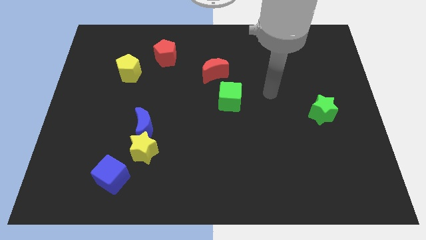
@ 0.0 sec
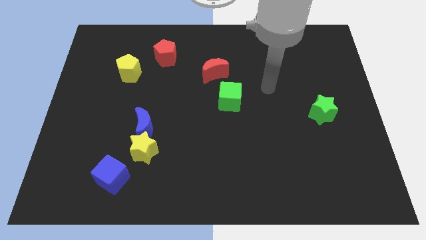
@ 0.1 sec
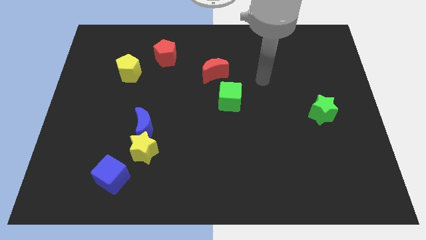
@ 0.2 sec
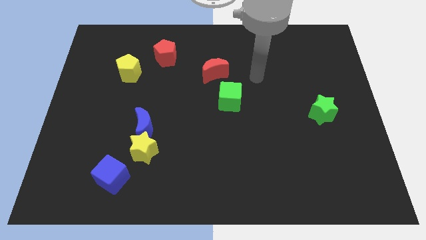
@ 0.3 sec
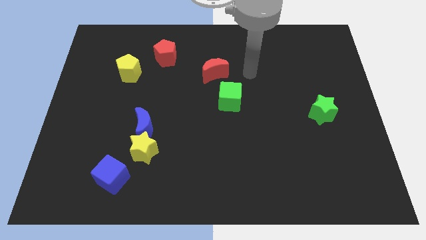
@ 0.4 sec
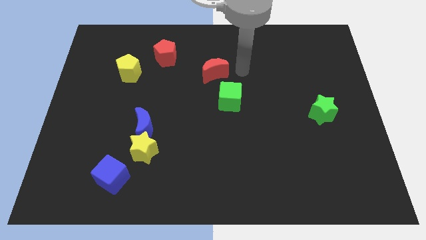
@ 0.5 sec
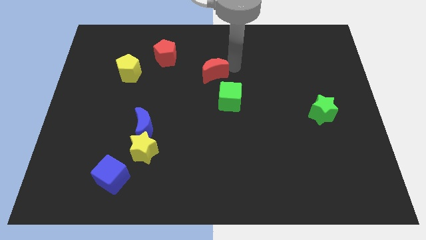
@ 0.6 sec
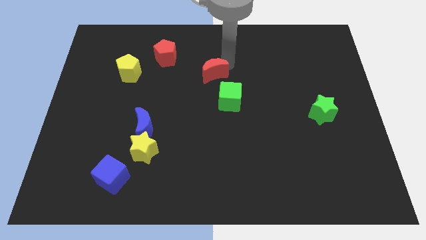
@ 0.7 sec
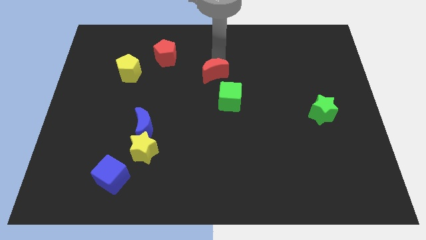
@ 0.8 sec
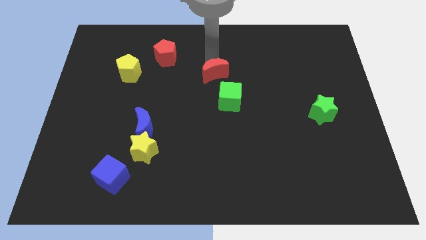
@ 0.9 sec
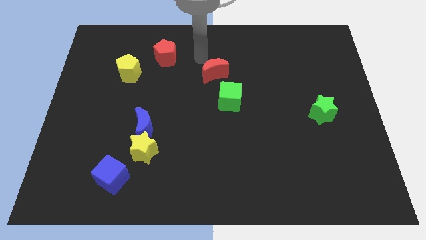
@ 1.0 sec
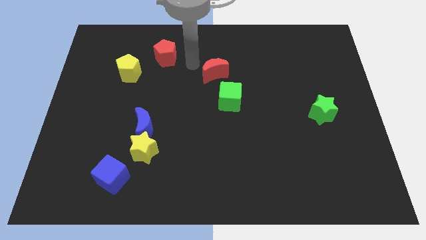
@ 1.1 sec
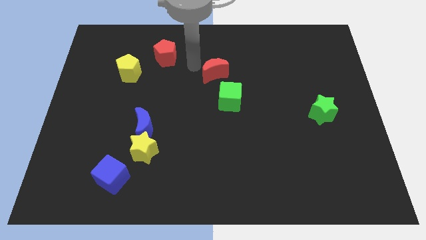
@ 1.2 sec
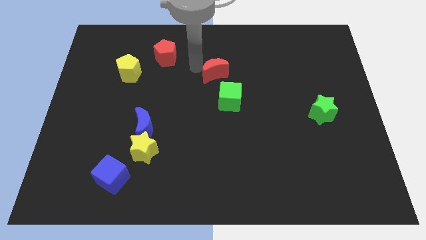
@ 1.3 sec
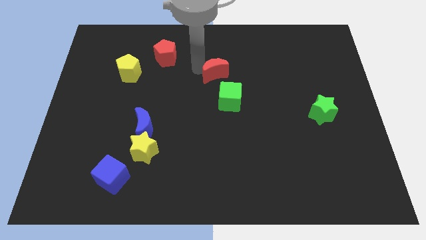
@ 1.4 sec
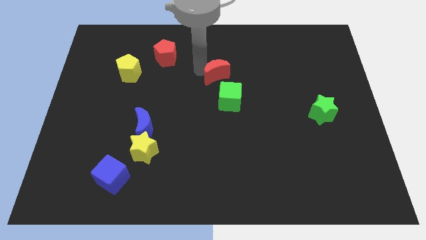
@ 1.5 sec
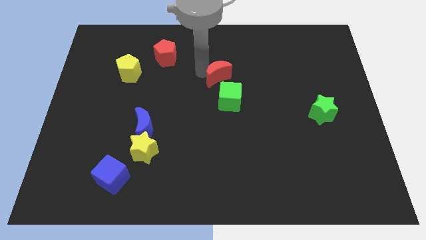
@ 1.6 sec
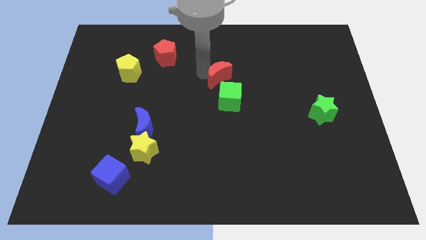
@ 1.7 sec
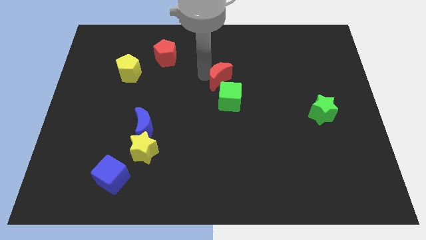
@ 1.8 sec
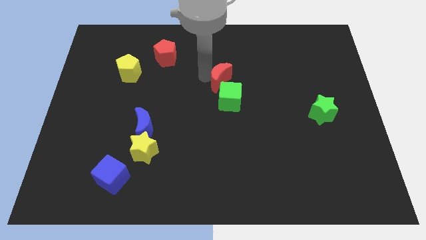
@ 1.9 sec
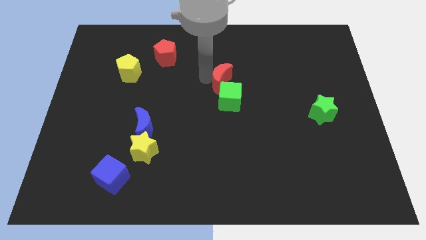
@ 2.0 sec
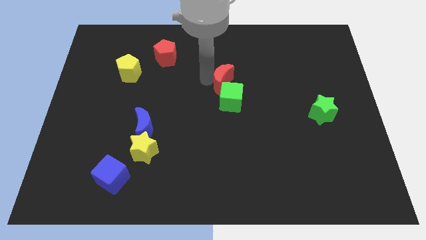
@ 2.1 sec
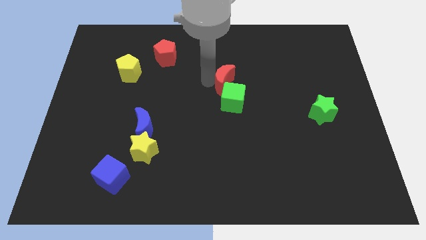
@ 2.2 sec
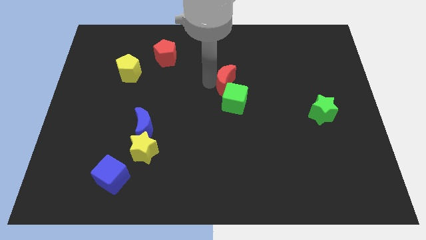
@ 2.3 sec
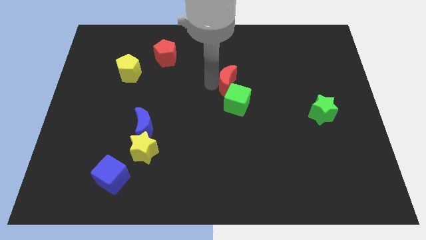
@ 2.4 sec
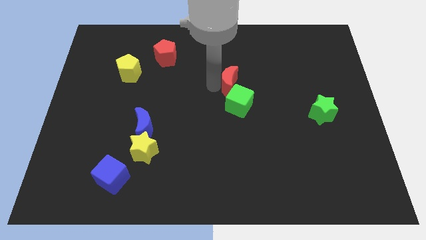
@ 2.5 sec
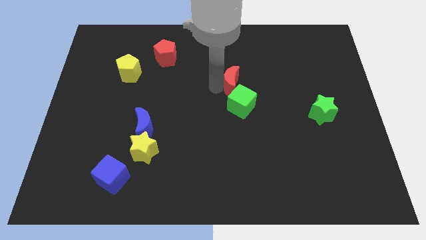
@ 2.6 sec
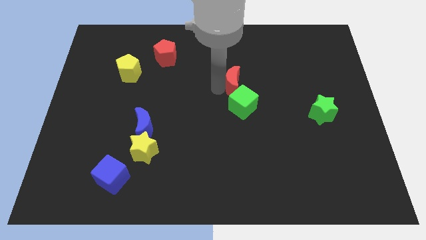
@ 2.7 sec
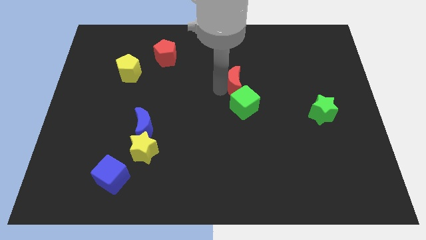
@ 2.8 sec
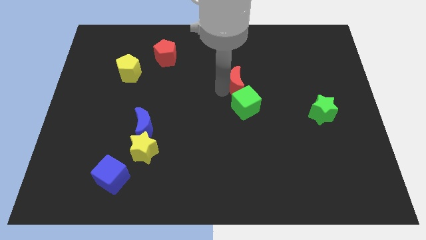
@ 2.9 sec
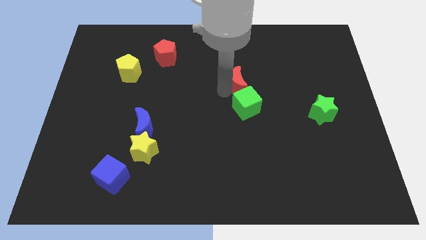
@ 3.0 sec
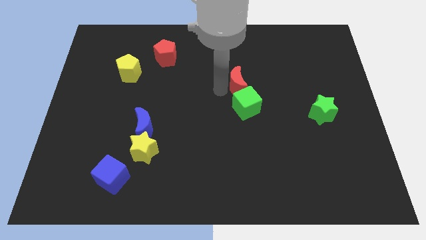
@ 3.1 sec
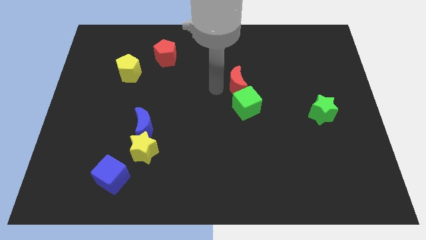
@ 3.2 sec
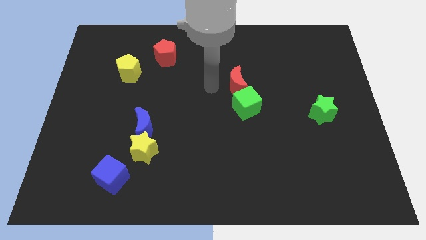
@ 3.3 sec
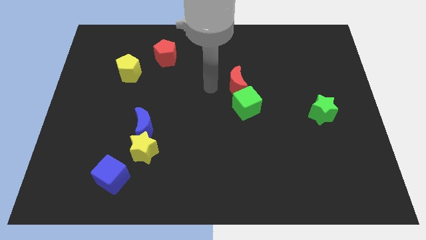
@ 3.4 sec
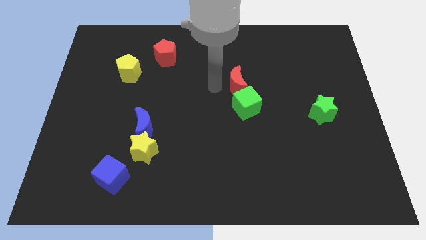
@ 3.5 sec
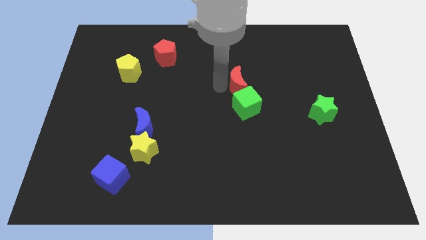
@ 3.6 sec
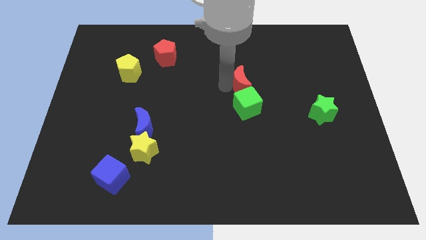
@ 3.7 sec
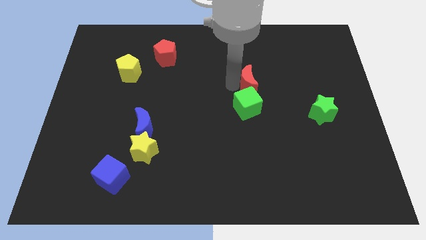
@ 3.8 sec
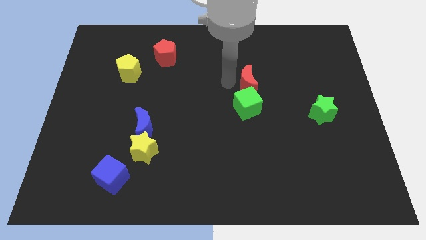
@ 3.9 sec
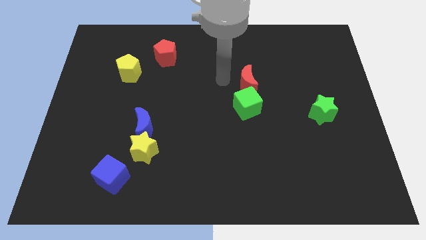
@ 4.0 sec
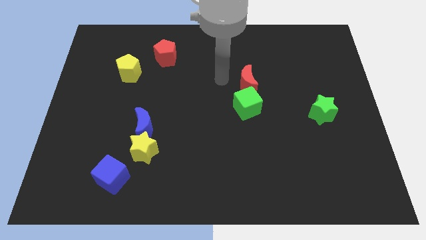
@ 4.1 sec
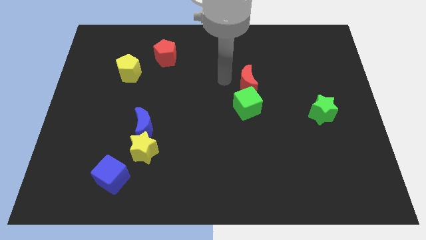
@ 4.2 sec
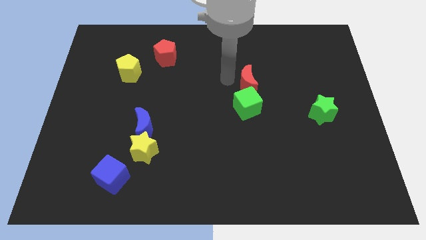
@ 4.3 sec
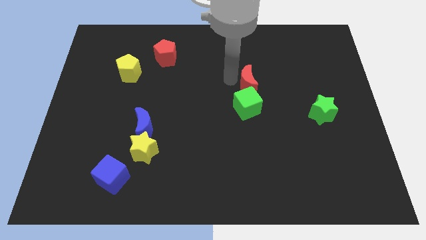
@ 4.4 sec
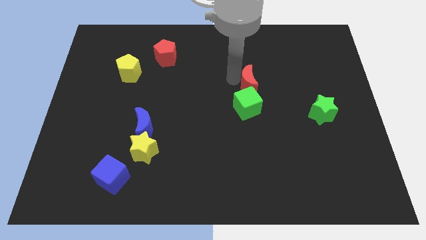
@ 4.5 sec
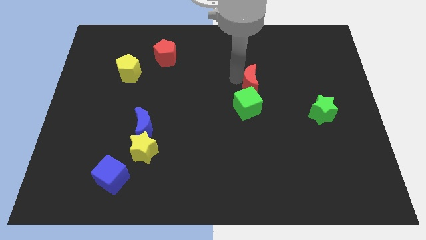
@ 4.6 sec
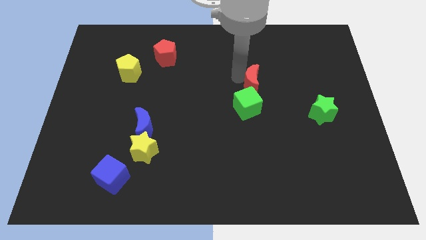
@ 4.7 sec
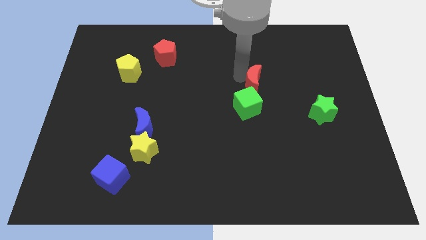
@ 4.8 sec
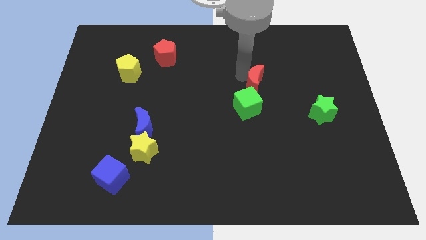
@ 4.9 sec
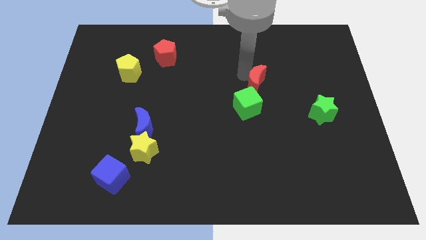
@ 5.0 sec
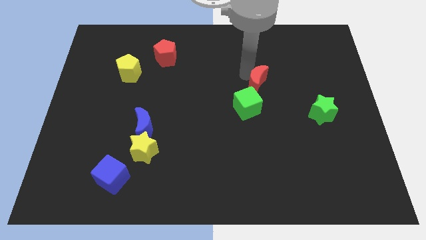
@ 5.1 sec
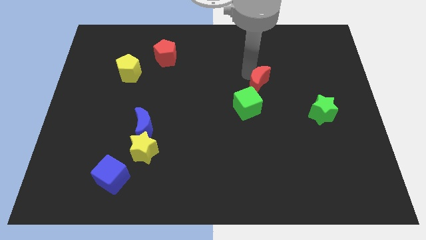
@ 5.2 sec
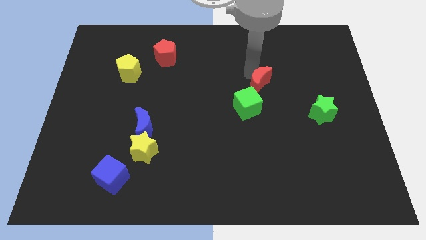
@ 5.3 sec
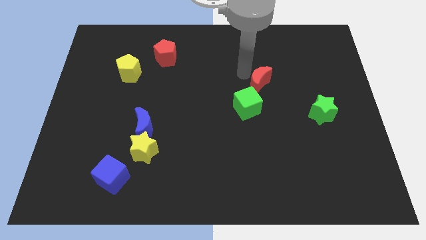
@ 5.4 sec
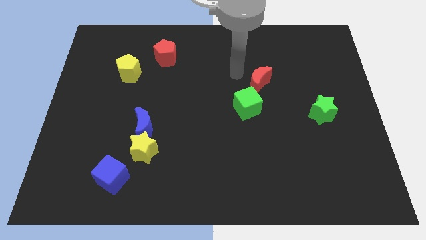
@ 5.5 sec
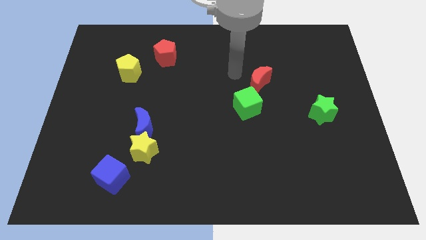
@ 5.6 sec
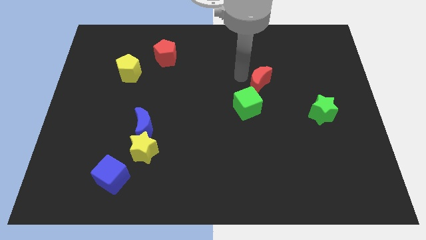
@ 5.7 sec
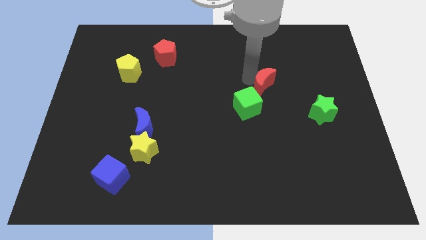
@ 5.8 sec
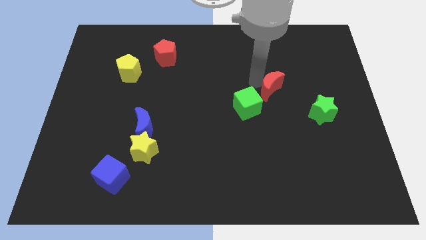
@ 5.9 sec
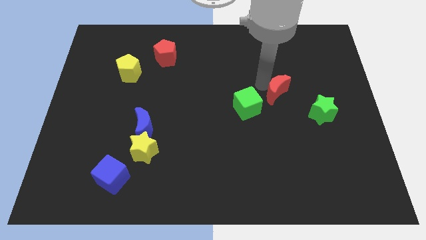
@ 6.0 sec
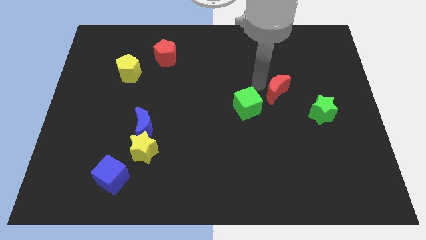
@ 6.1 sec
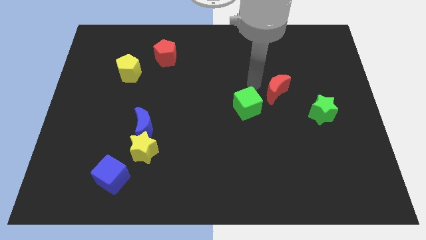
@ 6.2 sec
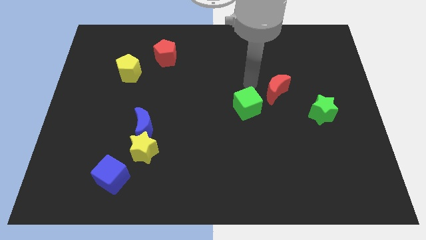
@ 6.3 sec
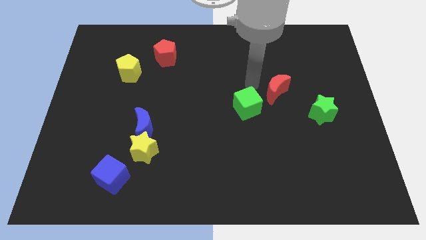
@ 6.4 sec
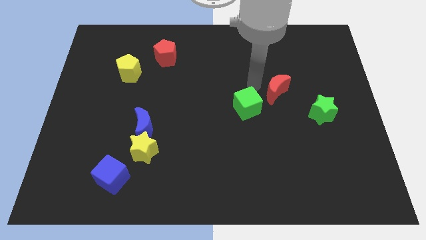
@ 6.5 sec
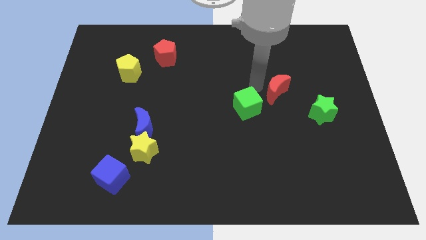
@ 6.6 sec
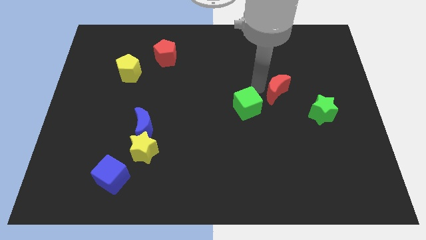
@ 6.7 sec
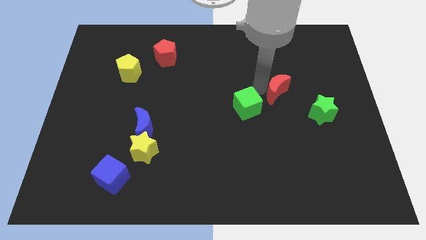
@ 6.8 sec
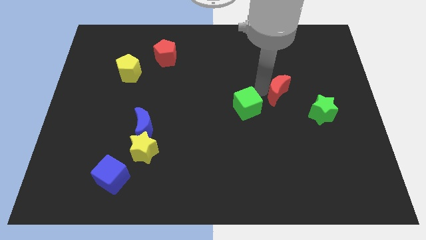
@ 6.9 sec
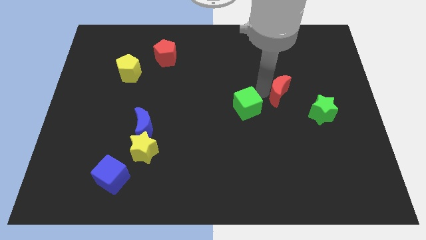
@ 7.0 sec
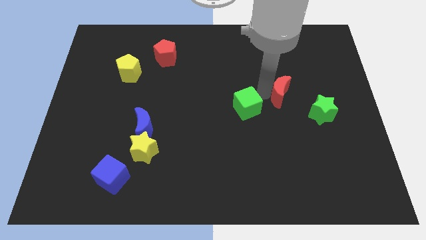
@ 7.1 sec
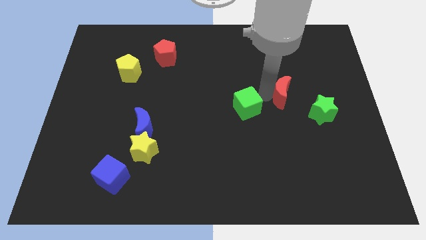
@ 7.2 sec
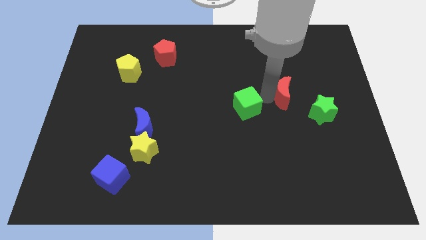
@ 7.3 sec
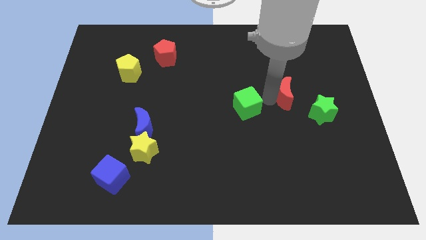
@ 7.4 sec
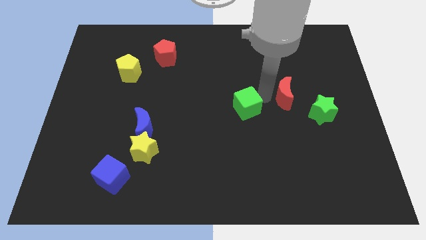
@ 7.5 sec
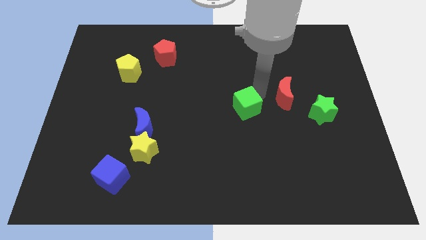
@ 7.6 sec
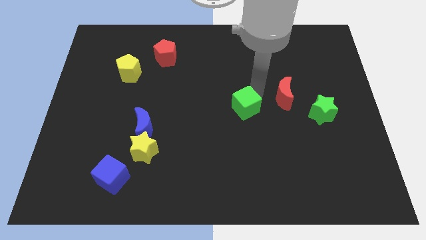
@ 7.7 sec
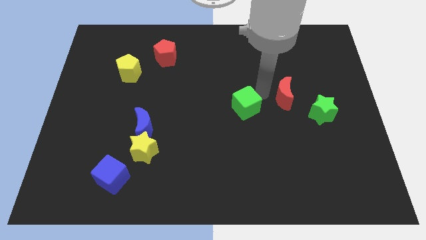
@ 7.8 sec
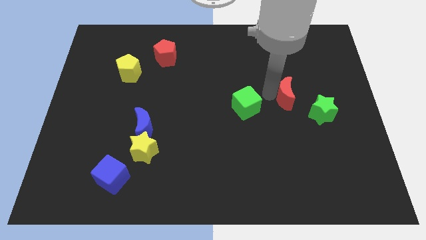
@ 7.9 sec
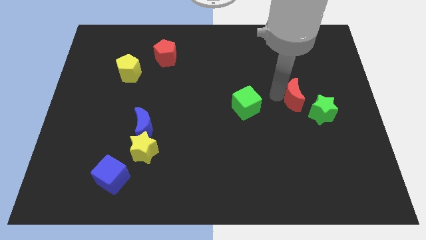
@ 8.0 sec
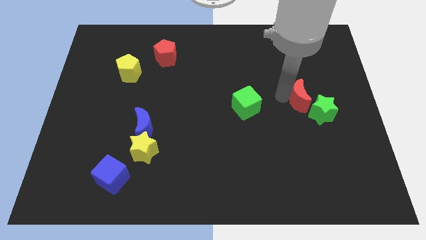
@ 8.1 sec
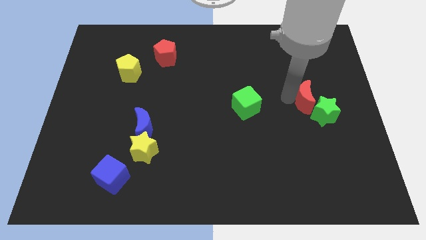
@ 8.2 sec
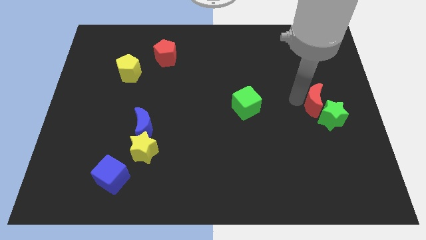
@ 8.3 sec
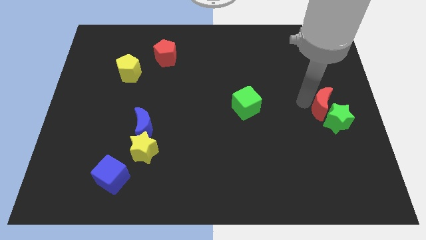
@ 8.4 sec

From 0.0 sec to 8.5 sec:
put the red moon to the right side of the board
